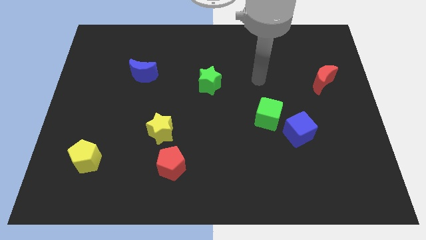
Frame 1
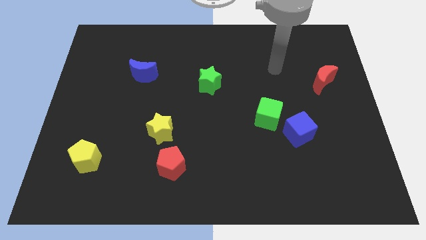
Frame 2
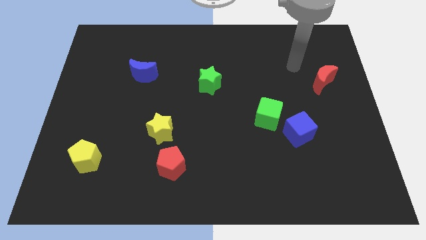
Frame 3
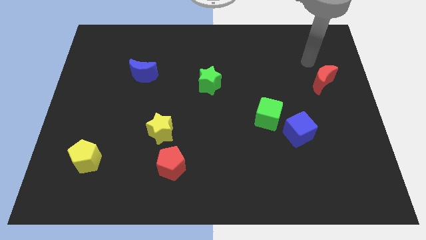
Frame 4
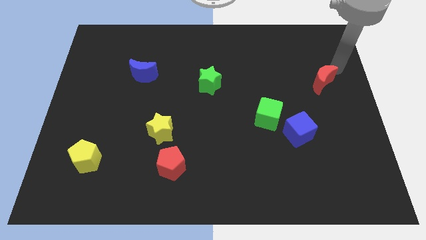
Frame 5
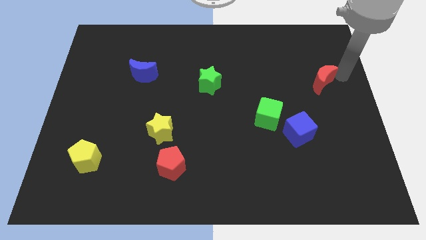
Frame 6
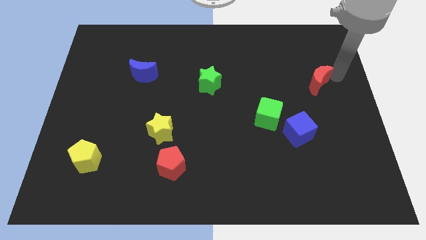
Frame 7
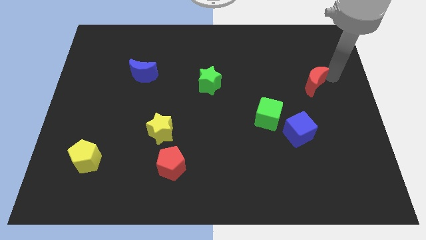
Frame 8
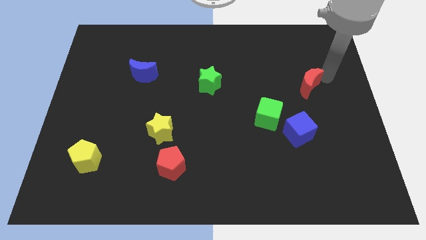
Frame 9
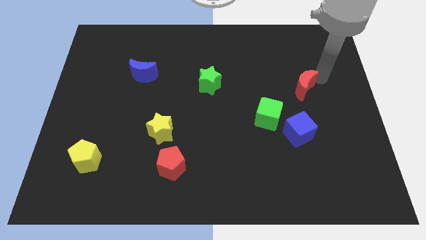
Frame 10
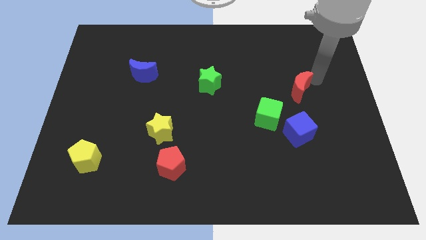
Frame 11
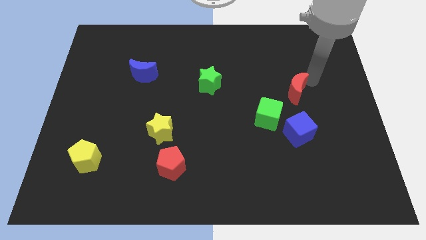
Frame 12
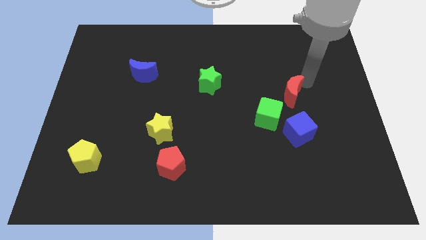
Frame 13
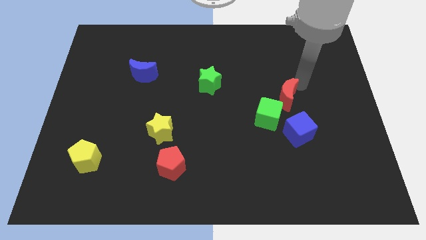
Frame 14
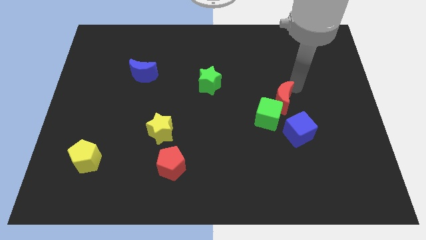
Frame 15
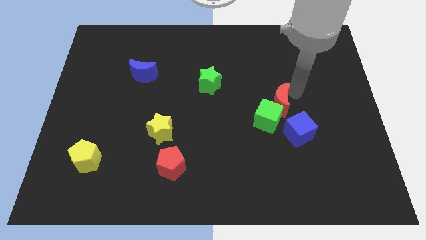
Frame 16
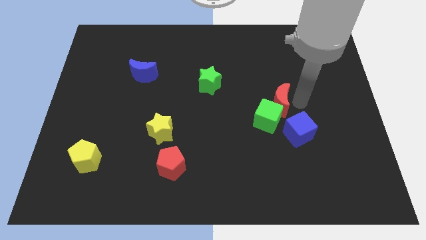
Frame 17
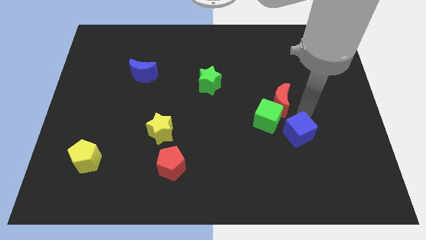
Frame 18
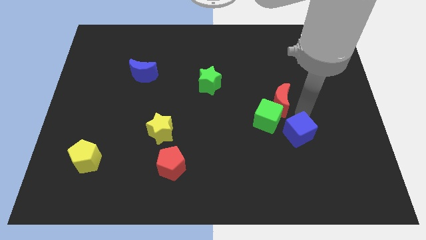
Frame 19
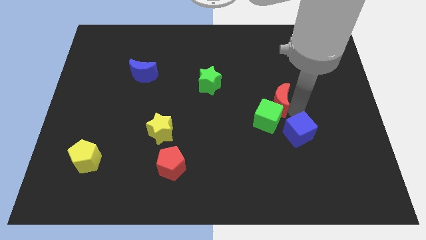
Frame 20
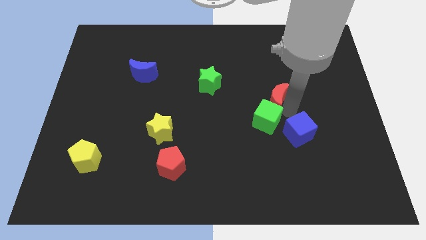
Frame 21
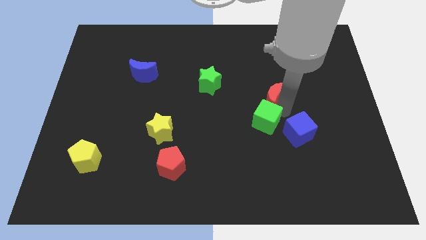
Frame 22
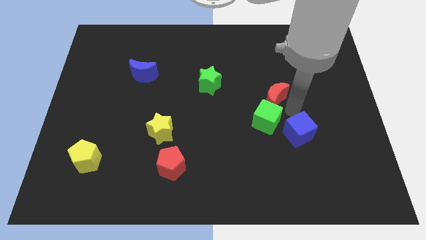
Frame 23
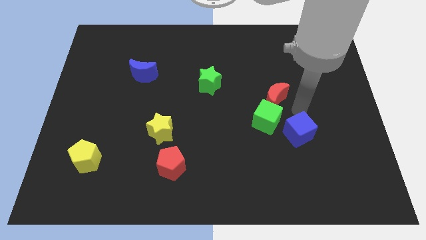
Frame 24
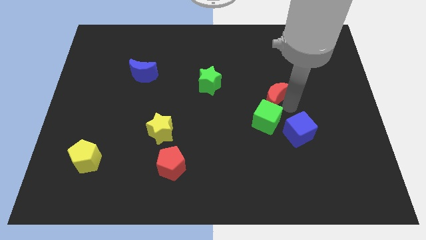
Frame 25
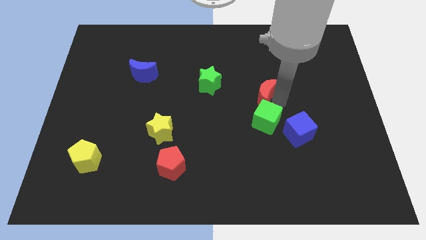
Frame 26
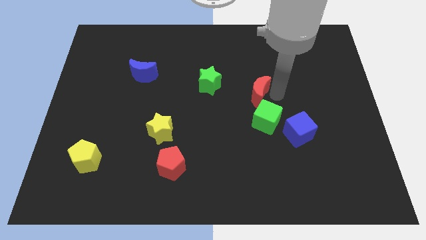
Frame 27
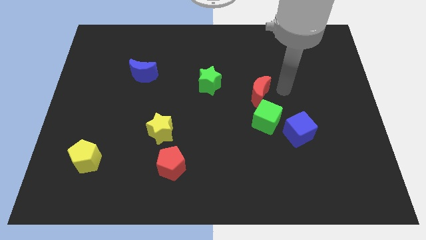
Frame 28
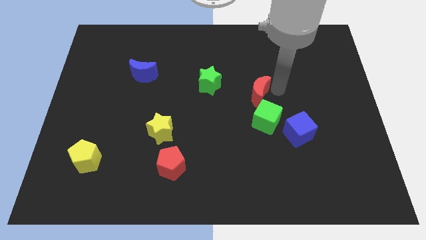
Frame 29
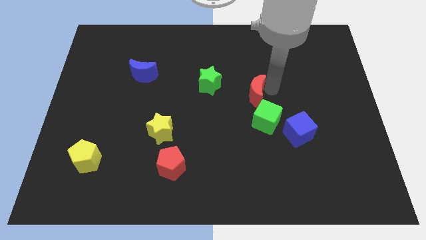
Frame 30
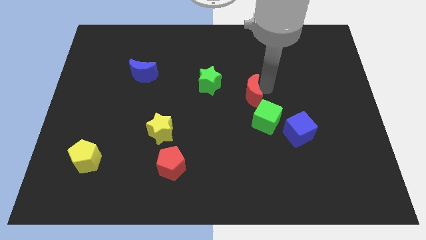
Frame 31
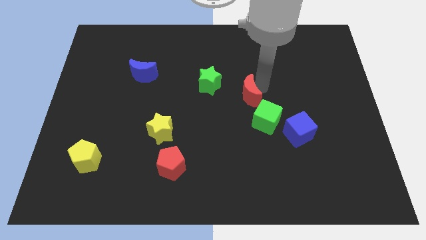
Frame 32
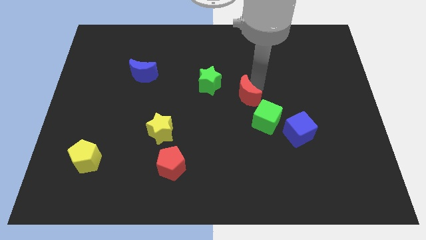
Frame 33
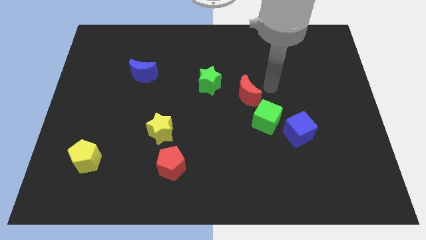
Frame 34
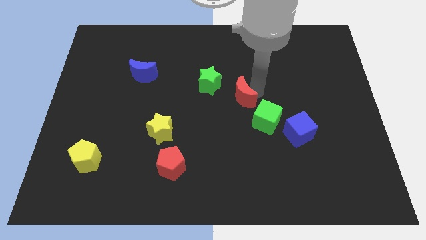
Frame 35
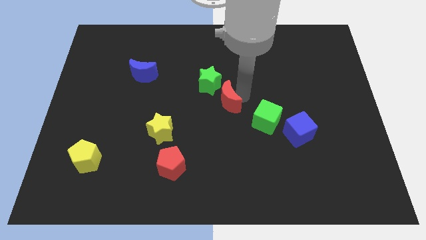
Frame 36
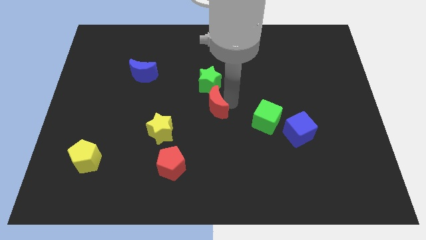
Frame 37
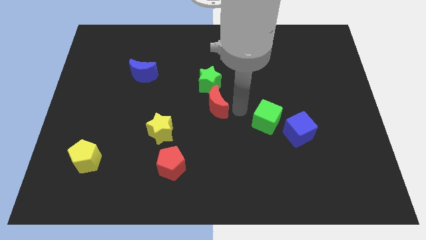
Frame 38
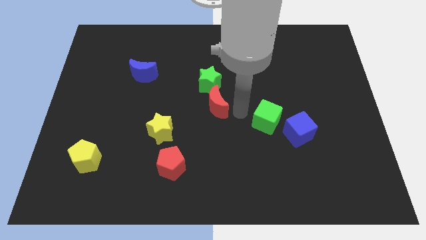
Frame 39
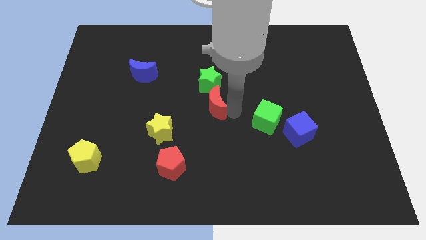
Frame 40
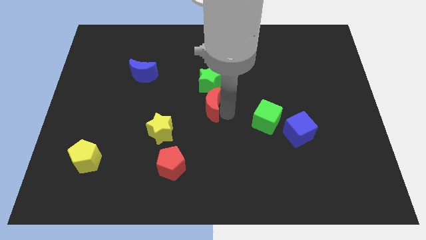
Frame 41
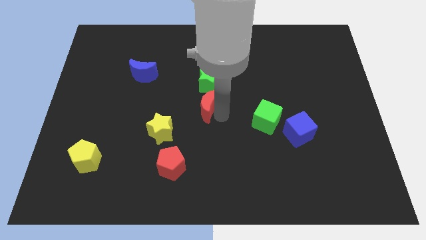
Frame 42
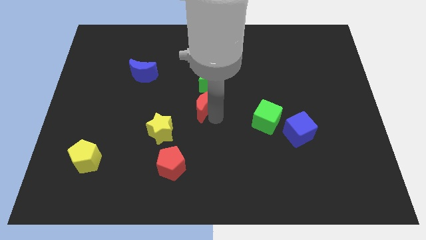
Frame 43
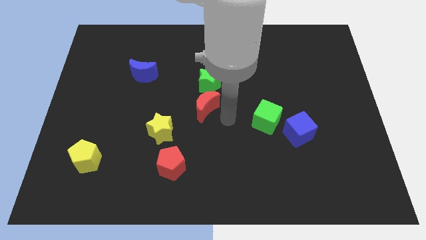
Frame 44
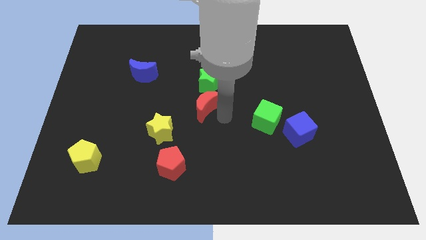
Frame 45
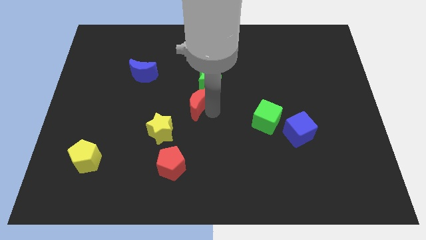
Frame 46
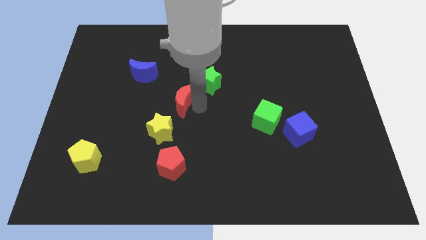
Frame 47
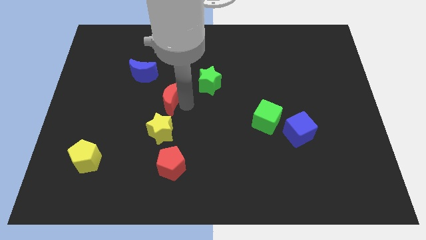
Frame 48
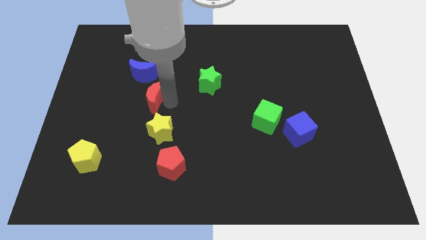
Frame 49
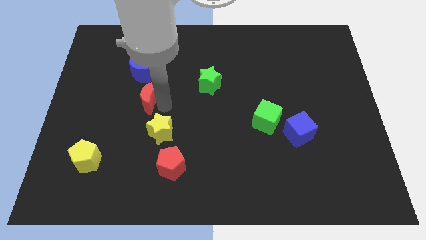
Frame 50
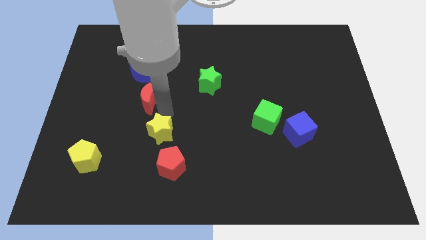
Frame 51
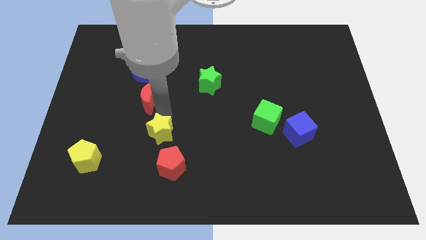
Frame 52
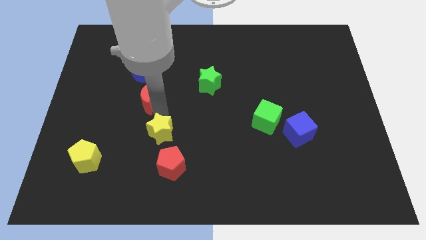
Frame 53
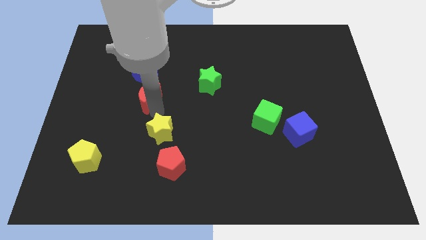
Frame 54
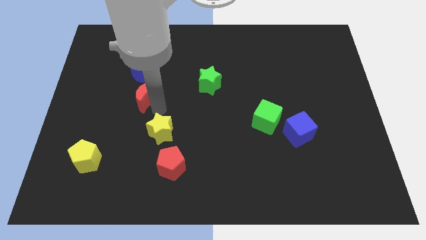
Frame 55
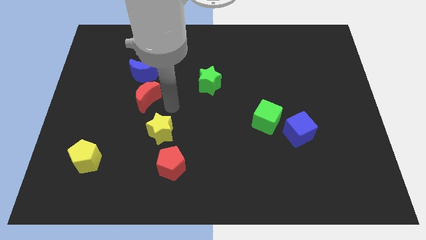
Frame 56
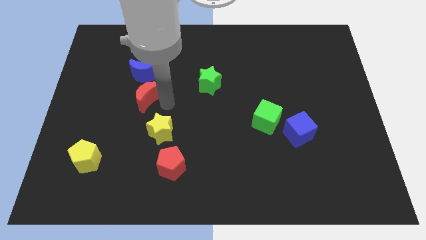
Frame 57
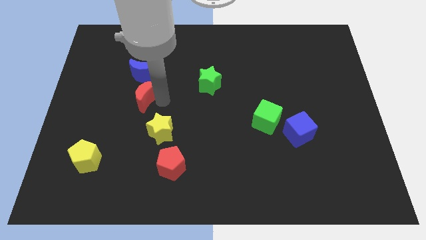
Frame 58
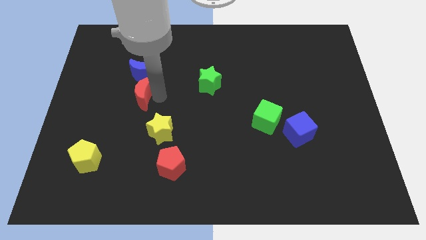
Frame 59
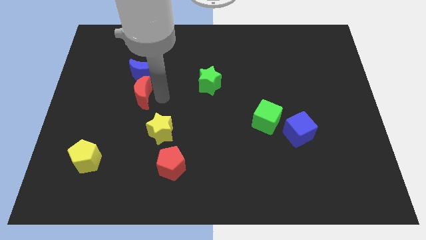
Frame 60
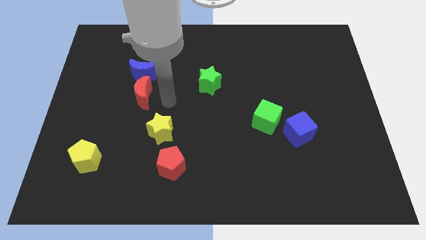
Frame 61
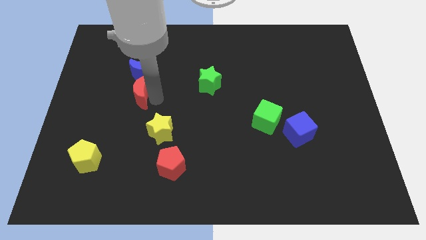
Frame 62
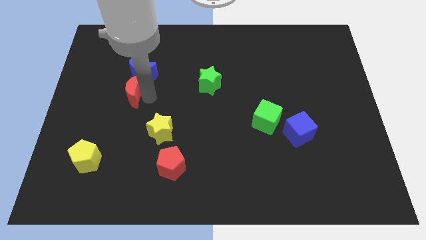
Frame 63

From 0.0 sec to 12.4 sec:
push the red moon to the bottom left side of the blue moon
